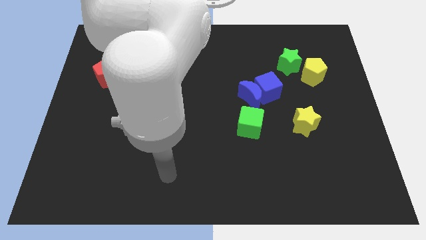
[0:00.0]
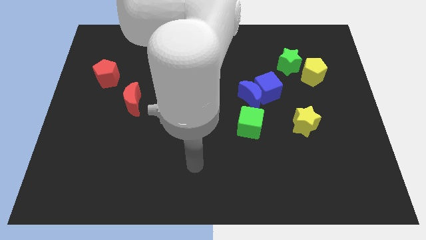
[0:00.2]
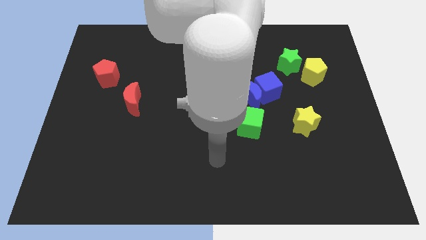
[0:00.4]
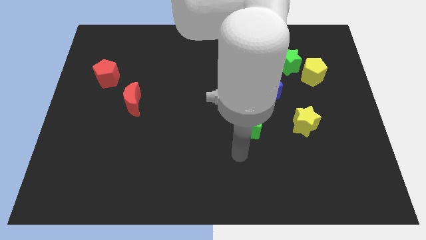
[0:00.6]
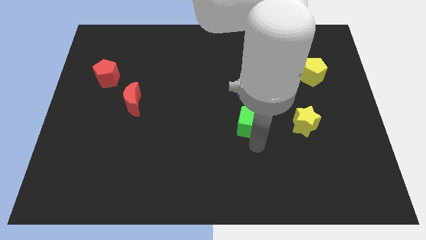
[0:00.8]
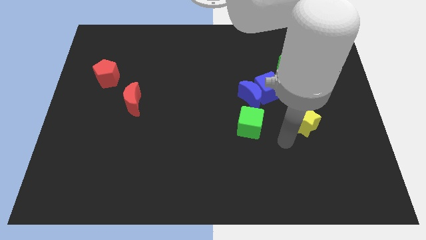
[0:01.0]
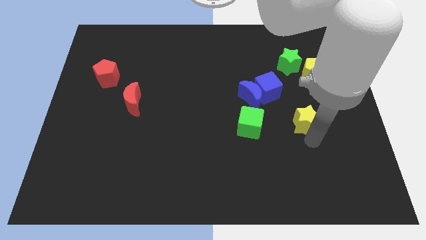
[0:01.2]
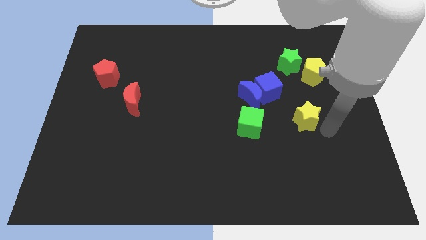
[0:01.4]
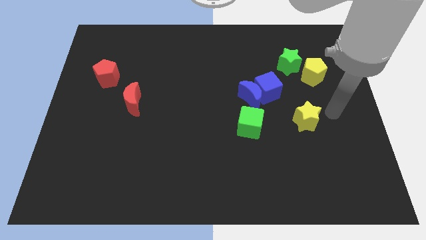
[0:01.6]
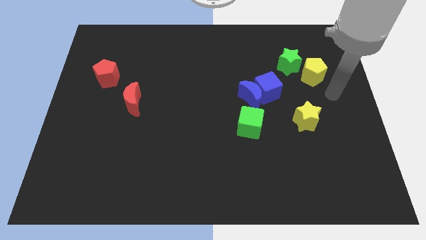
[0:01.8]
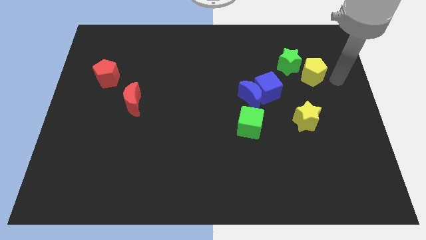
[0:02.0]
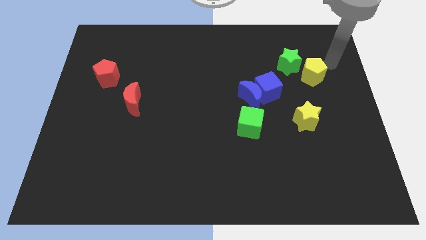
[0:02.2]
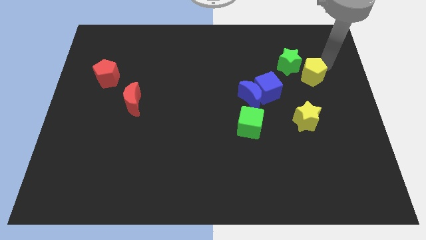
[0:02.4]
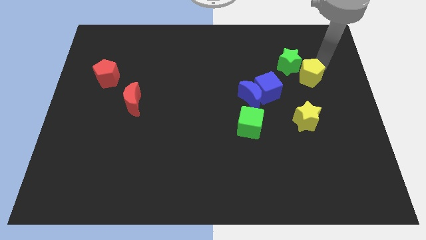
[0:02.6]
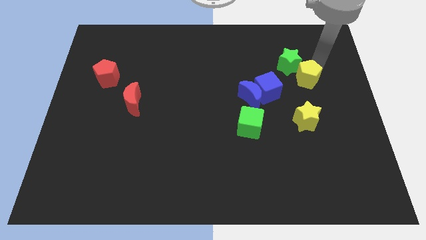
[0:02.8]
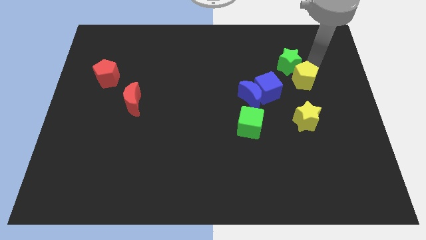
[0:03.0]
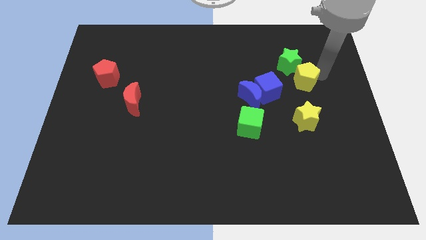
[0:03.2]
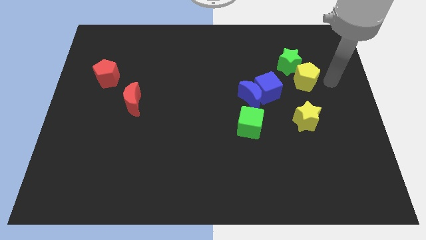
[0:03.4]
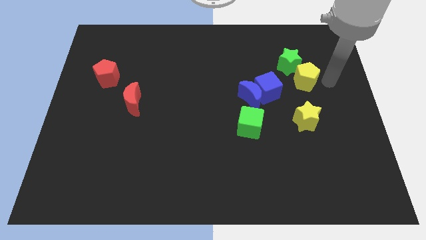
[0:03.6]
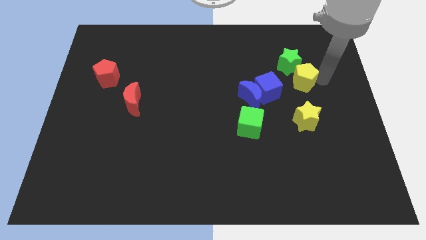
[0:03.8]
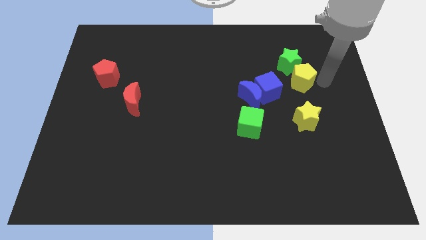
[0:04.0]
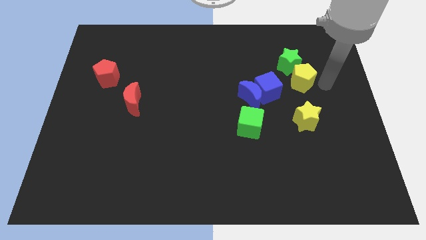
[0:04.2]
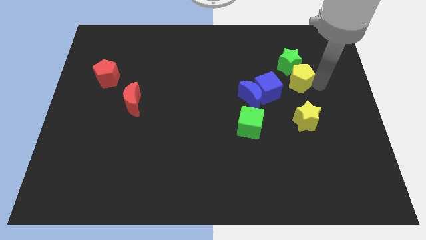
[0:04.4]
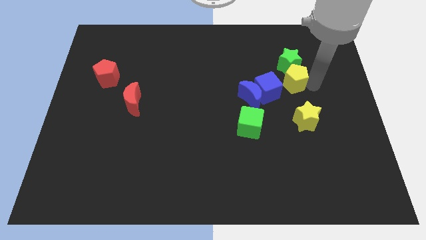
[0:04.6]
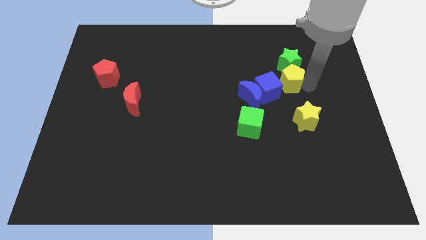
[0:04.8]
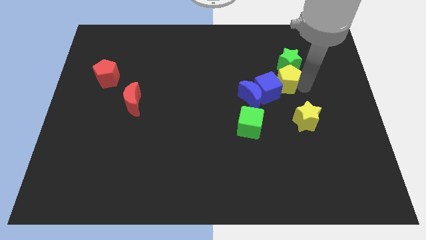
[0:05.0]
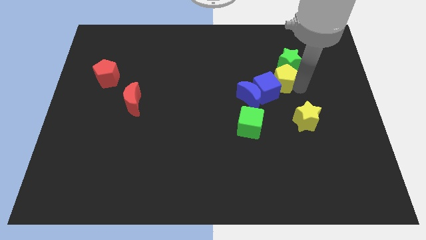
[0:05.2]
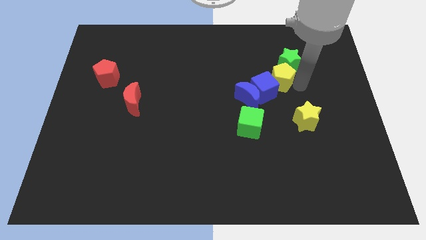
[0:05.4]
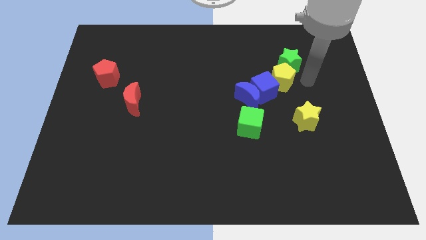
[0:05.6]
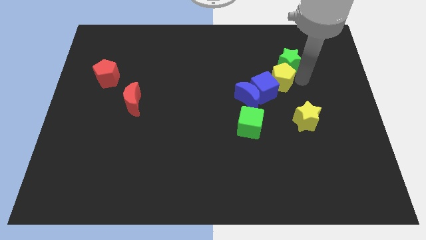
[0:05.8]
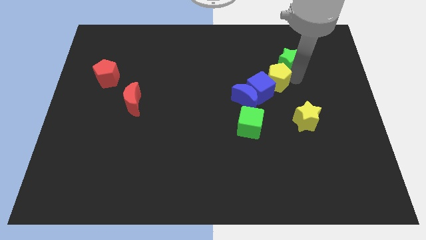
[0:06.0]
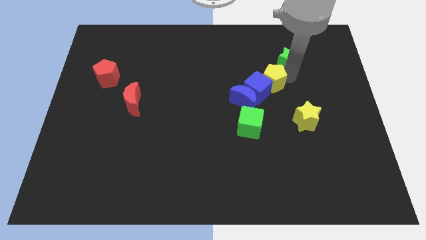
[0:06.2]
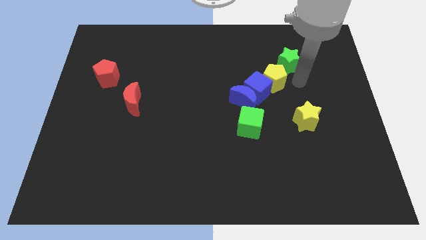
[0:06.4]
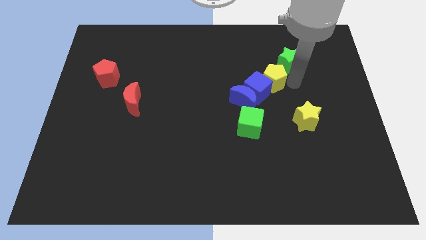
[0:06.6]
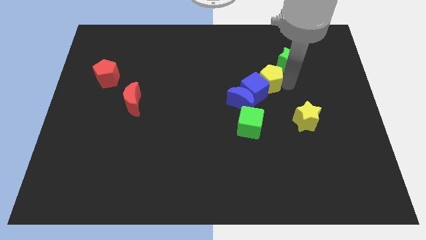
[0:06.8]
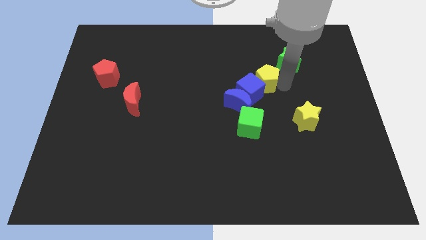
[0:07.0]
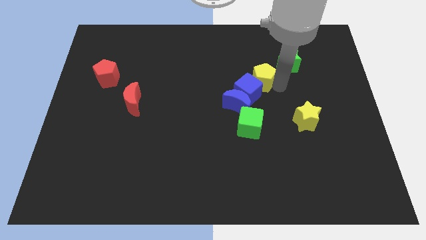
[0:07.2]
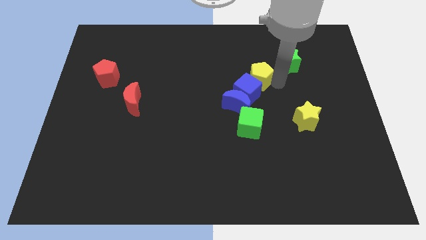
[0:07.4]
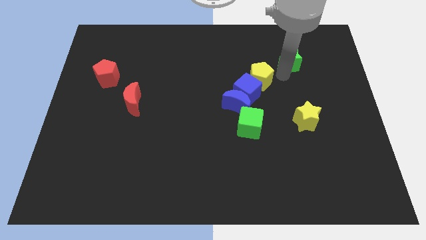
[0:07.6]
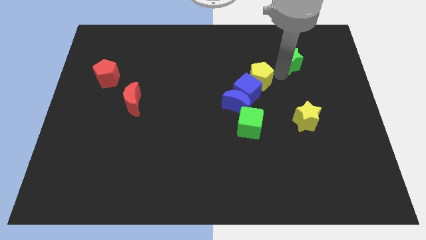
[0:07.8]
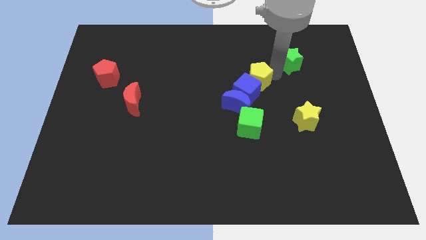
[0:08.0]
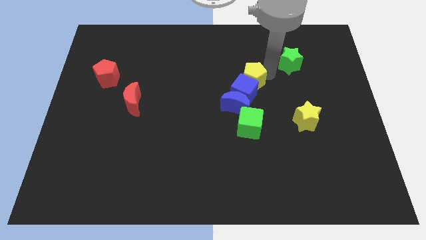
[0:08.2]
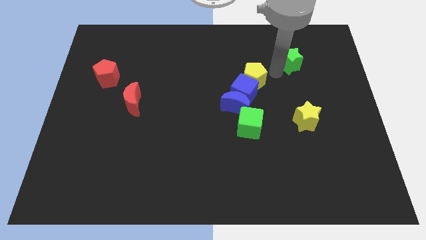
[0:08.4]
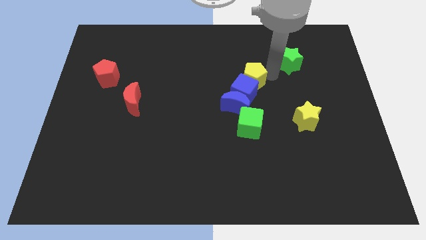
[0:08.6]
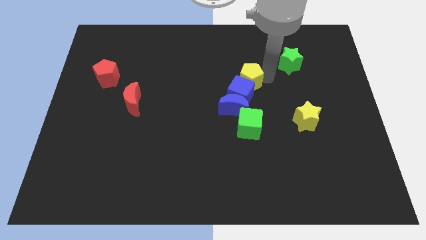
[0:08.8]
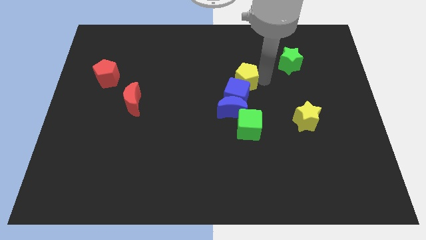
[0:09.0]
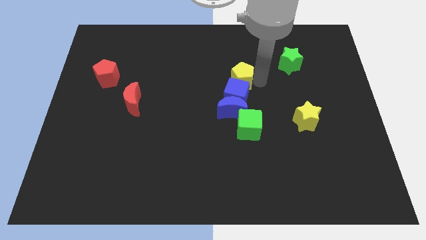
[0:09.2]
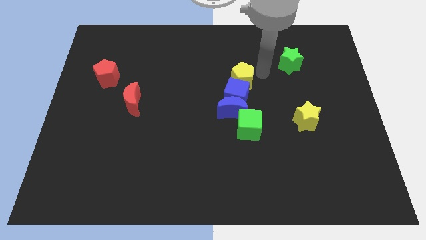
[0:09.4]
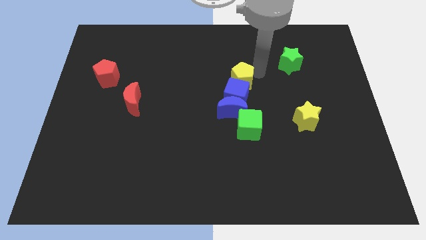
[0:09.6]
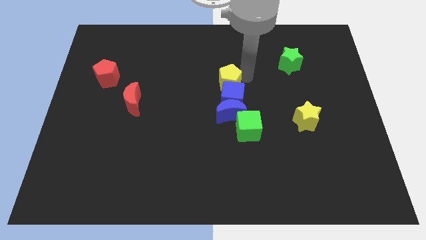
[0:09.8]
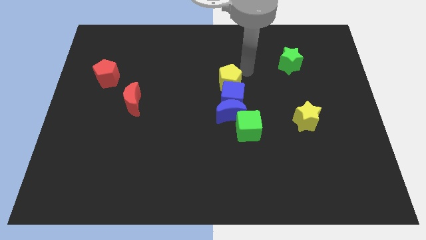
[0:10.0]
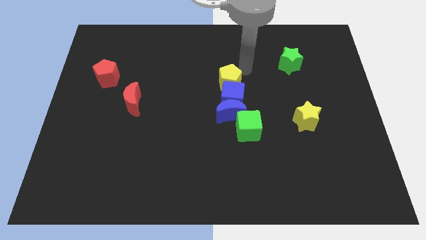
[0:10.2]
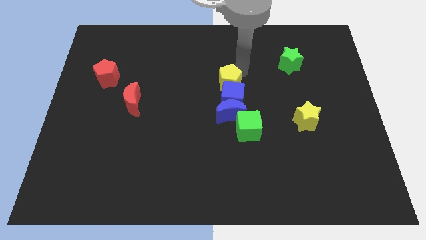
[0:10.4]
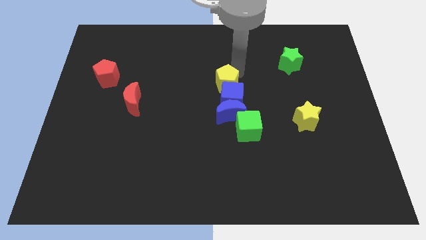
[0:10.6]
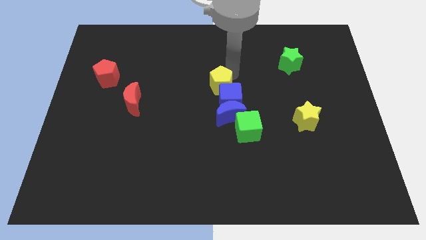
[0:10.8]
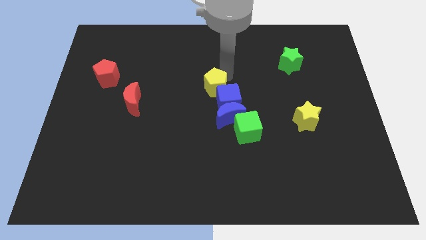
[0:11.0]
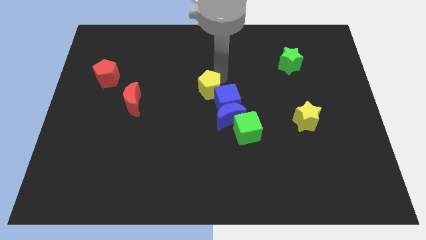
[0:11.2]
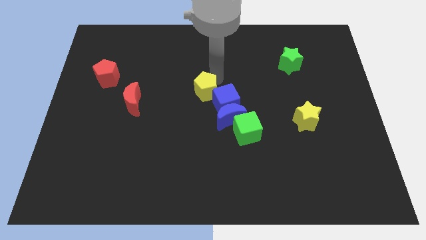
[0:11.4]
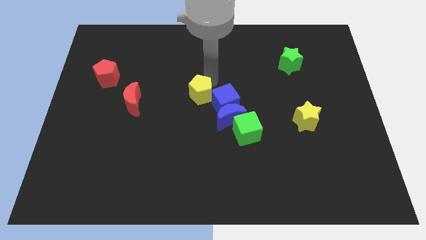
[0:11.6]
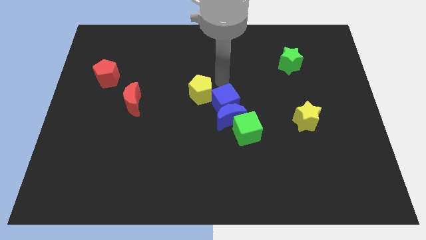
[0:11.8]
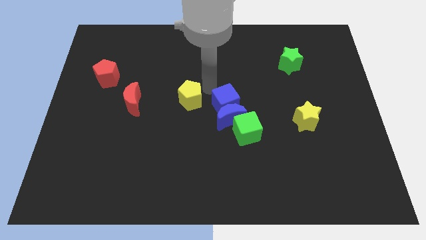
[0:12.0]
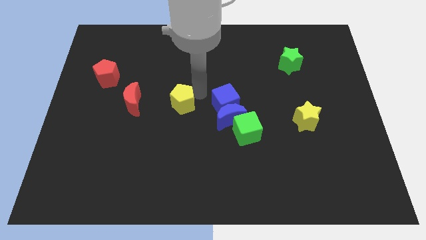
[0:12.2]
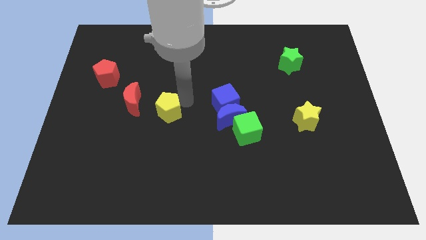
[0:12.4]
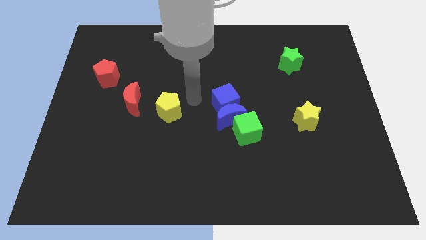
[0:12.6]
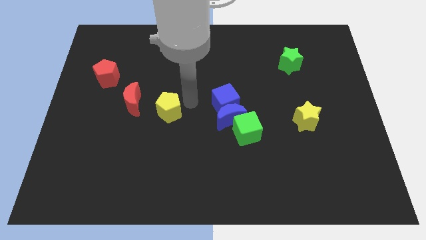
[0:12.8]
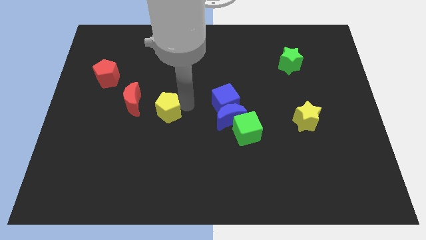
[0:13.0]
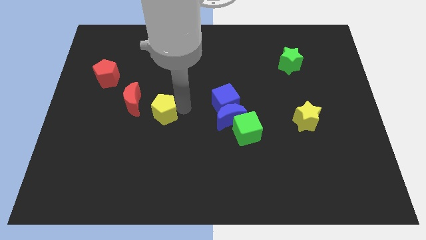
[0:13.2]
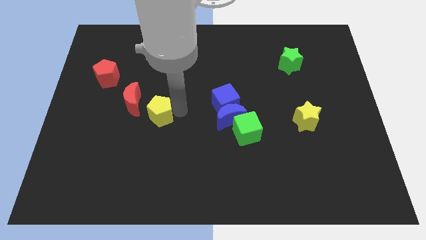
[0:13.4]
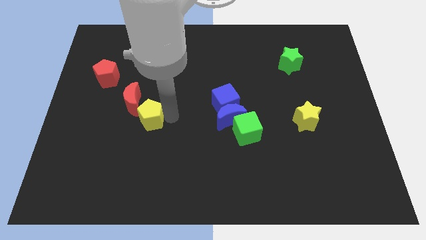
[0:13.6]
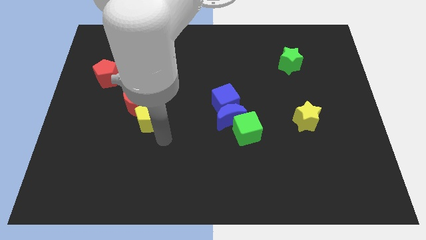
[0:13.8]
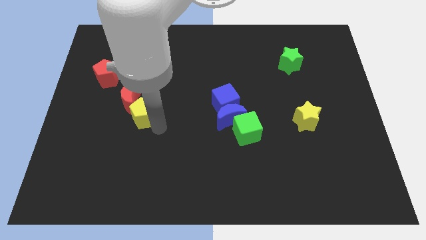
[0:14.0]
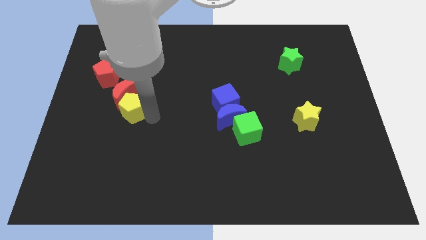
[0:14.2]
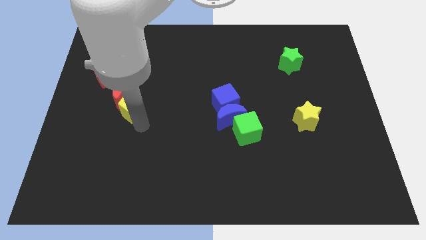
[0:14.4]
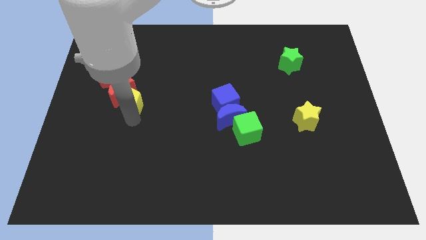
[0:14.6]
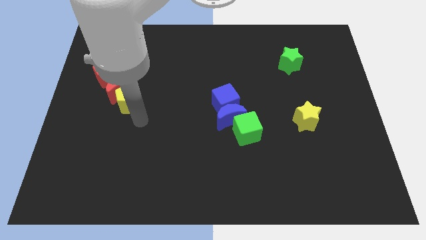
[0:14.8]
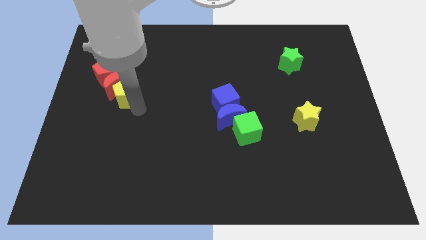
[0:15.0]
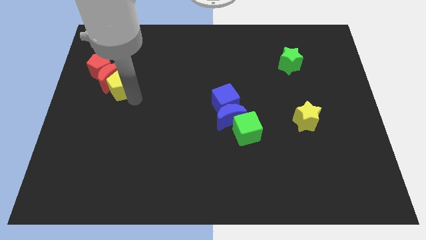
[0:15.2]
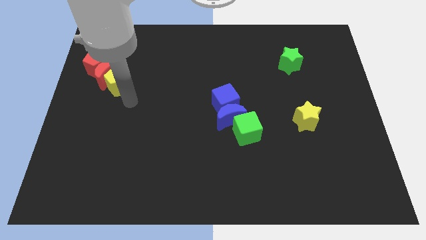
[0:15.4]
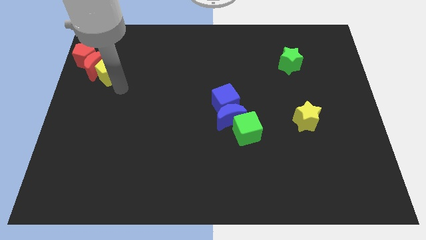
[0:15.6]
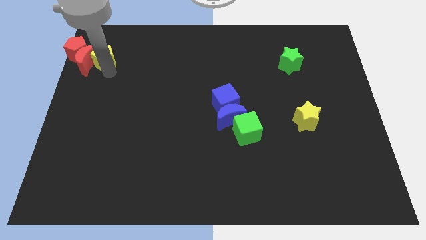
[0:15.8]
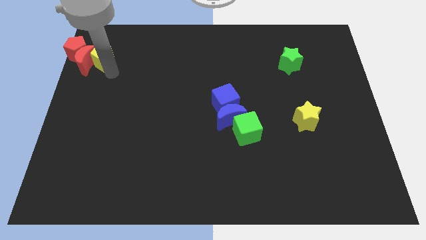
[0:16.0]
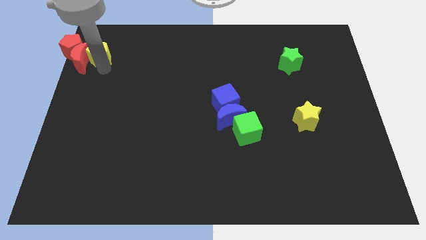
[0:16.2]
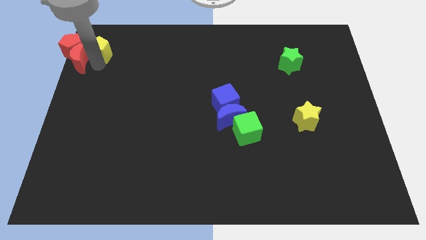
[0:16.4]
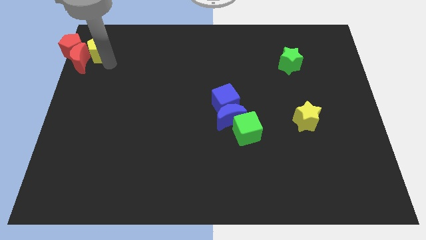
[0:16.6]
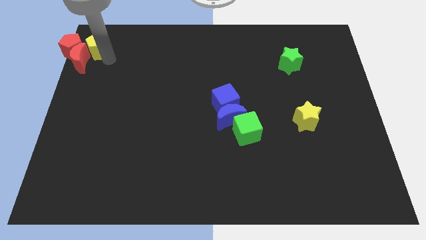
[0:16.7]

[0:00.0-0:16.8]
slide the yellow pentagon to the top left corner
